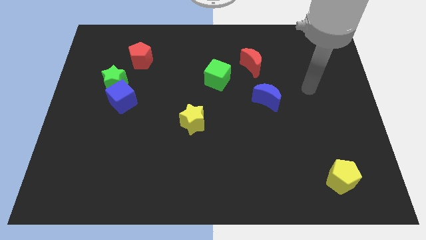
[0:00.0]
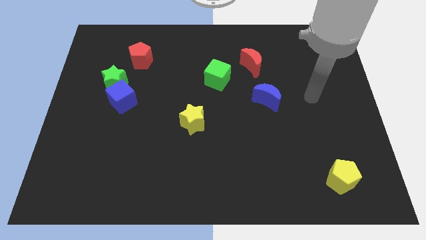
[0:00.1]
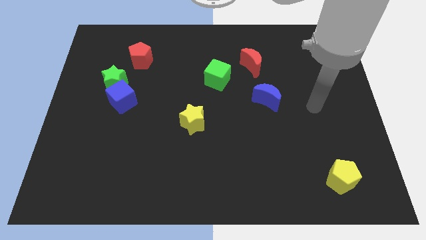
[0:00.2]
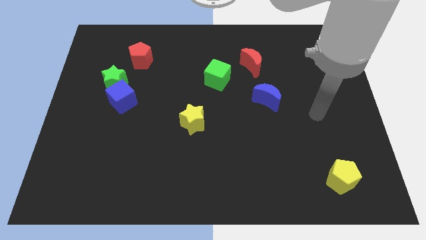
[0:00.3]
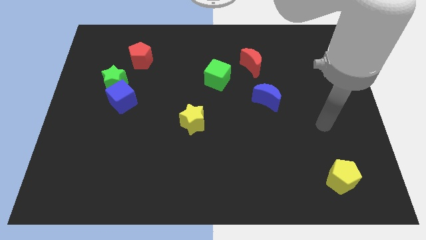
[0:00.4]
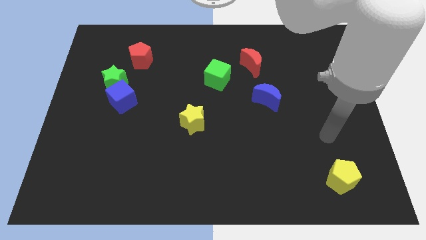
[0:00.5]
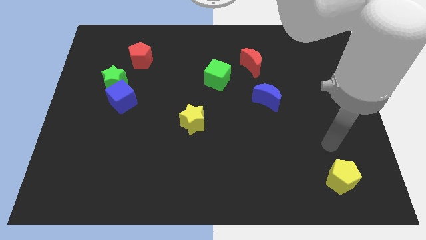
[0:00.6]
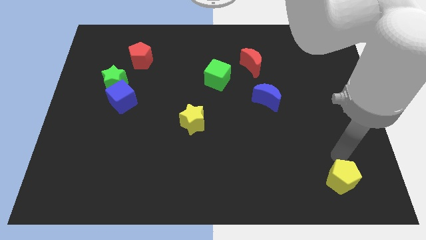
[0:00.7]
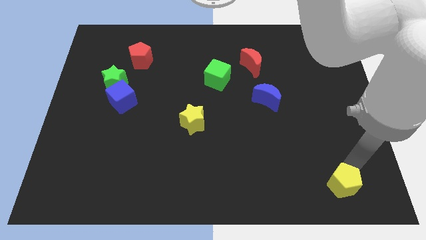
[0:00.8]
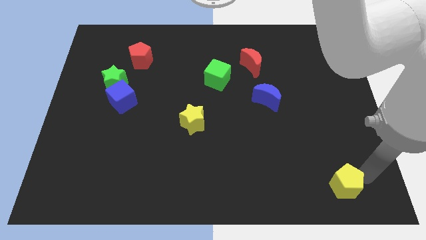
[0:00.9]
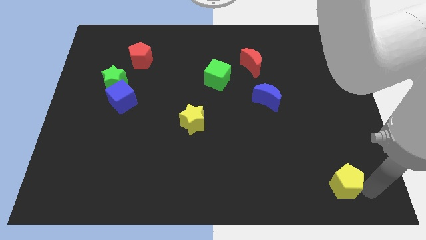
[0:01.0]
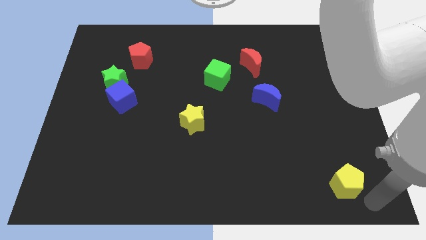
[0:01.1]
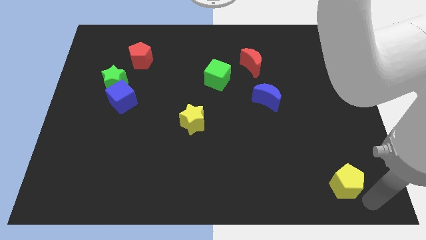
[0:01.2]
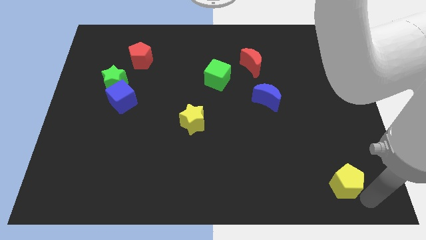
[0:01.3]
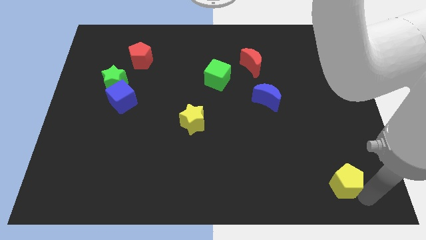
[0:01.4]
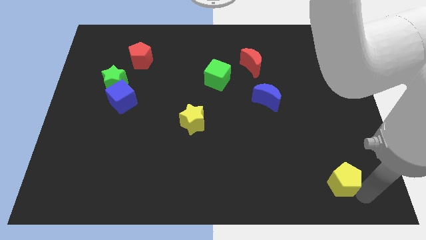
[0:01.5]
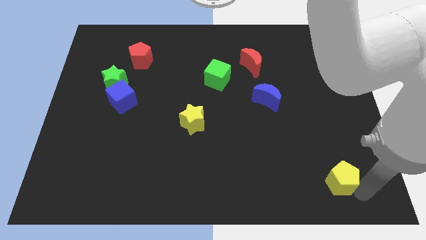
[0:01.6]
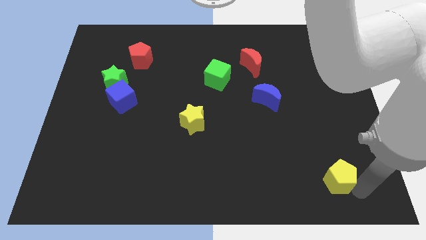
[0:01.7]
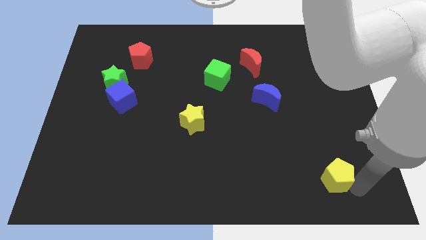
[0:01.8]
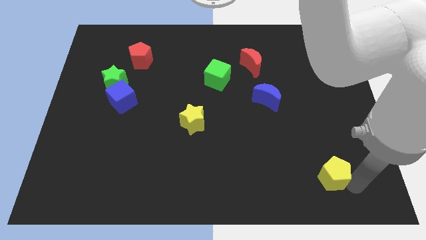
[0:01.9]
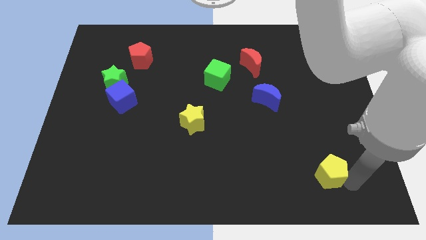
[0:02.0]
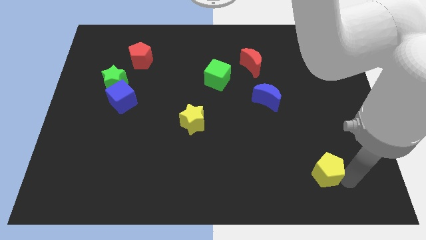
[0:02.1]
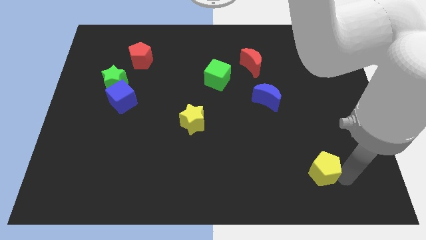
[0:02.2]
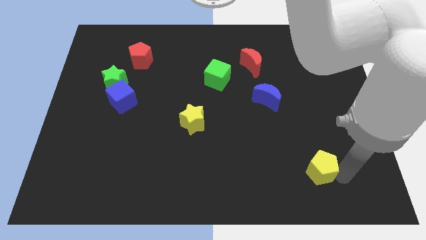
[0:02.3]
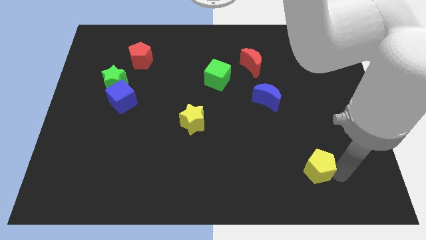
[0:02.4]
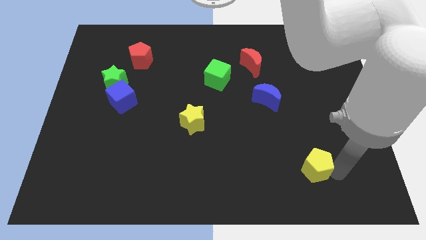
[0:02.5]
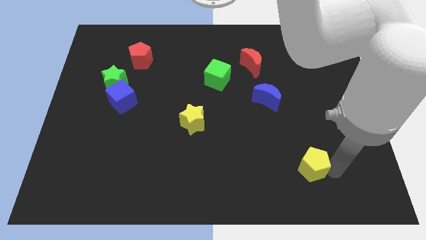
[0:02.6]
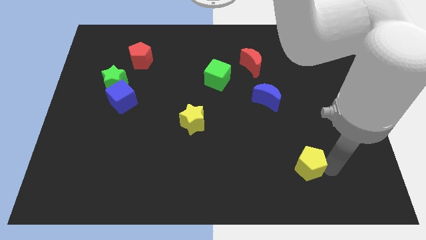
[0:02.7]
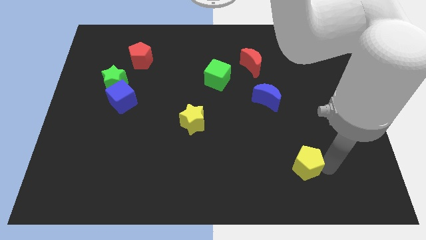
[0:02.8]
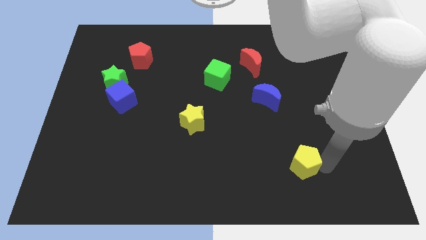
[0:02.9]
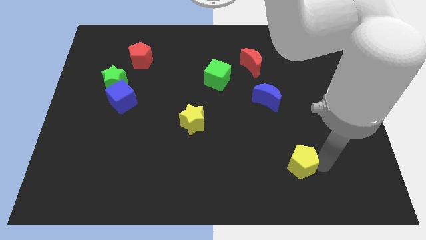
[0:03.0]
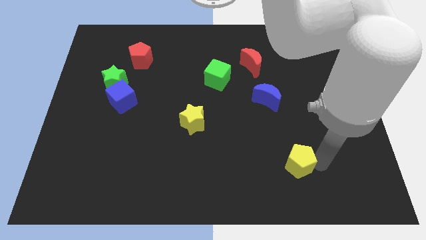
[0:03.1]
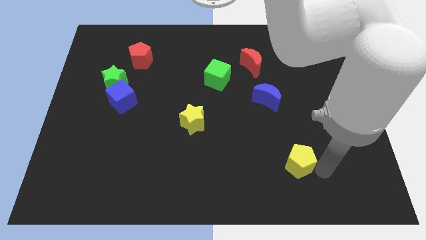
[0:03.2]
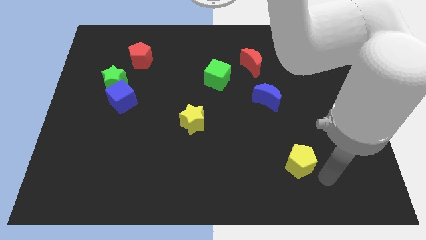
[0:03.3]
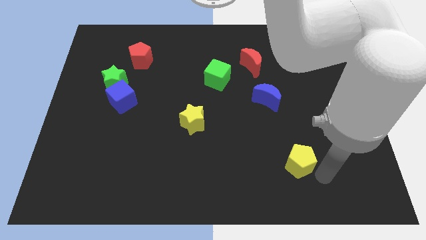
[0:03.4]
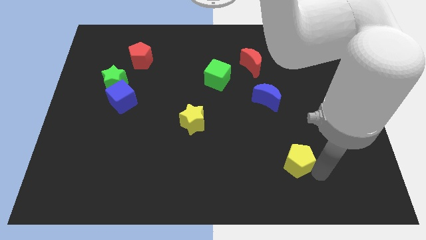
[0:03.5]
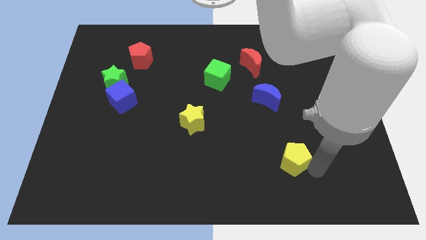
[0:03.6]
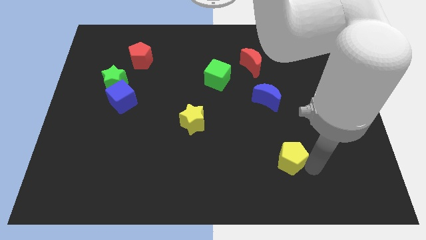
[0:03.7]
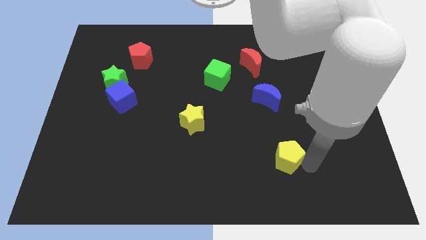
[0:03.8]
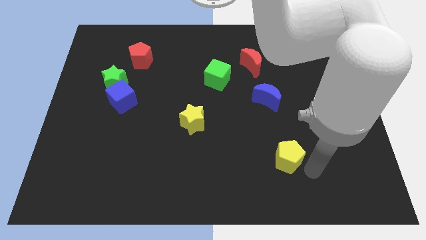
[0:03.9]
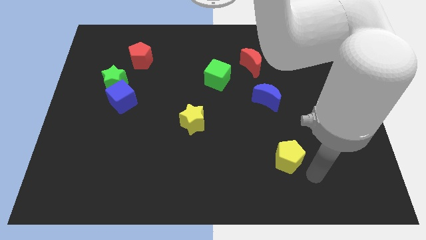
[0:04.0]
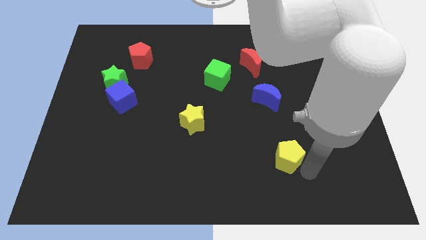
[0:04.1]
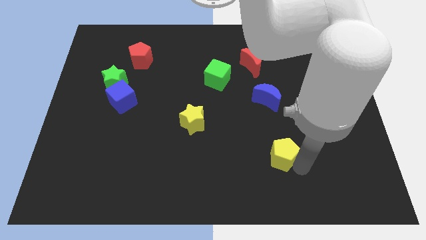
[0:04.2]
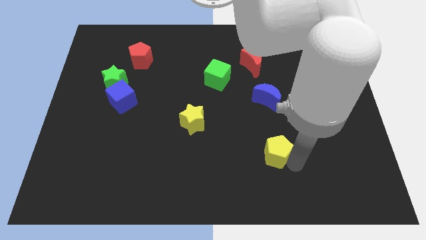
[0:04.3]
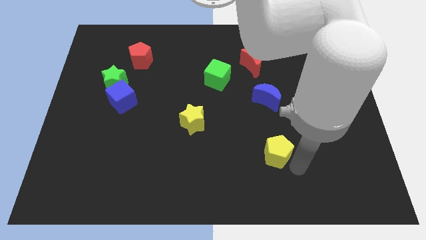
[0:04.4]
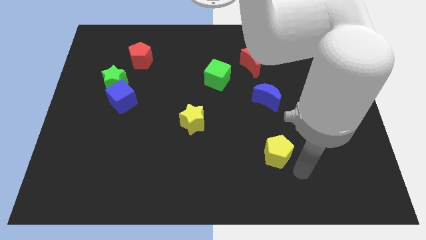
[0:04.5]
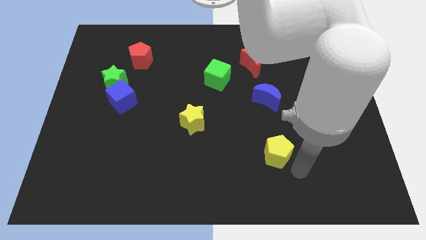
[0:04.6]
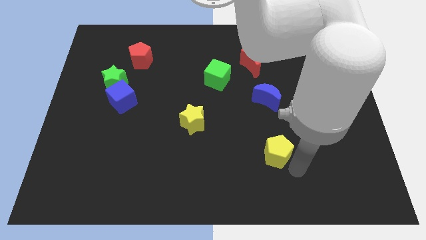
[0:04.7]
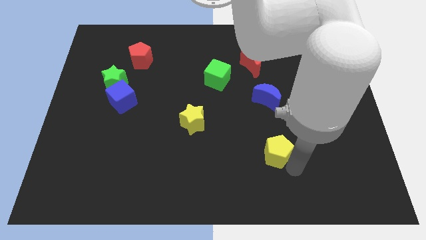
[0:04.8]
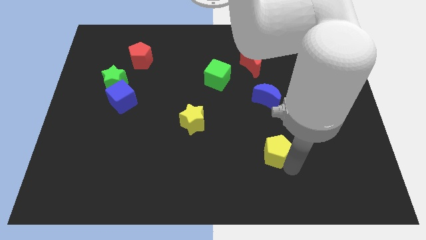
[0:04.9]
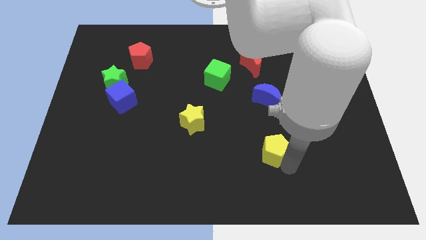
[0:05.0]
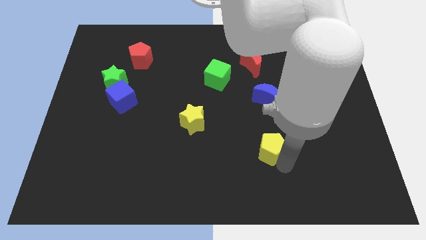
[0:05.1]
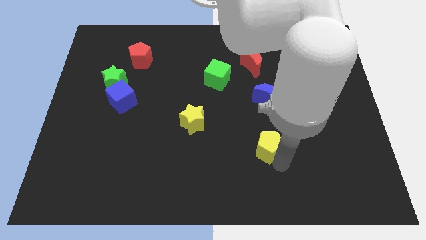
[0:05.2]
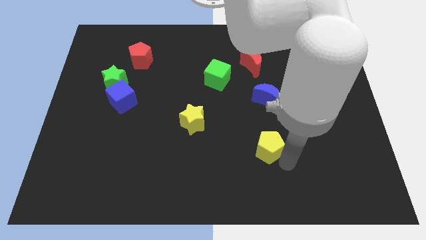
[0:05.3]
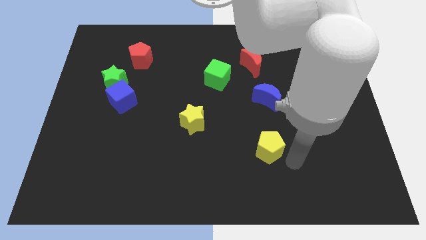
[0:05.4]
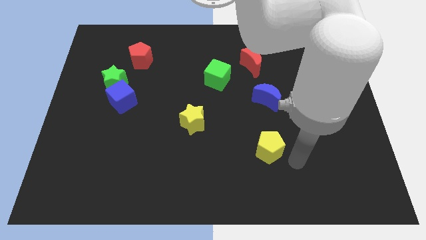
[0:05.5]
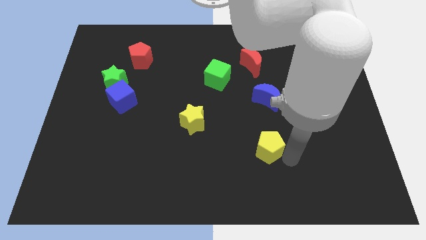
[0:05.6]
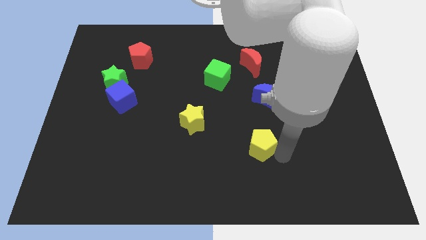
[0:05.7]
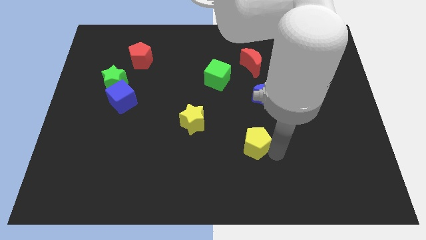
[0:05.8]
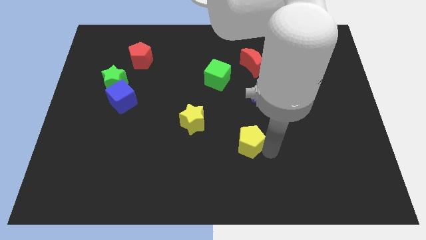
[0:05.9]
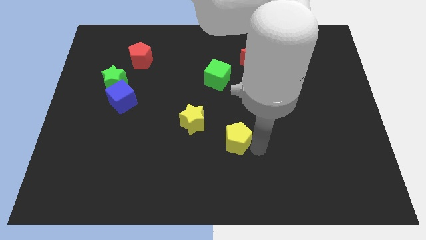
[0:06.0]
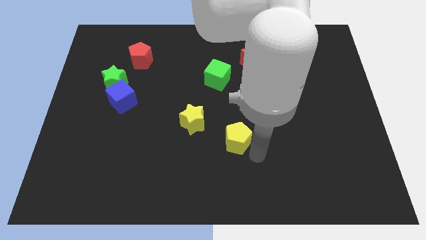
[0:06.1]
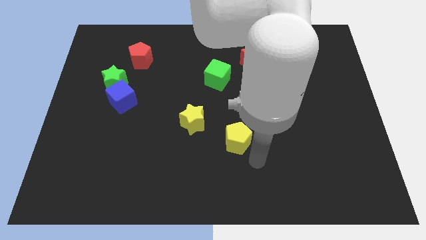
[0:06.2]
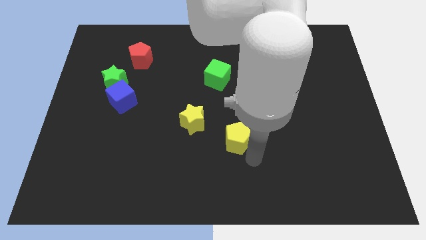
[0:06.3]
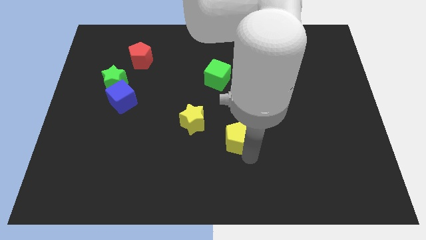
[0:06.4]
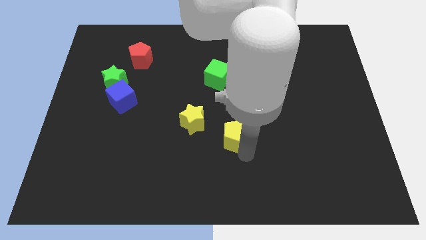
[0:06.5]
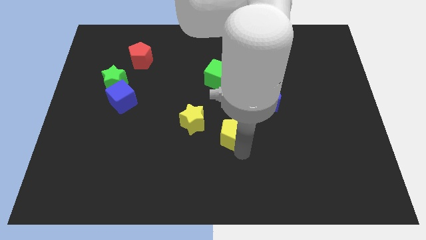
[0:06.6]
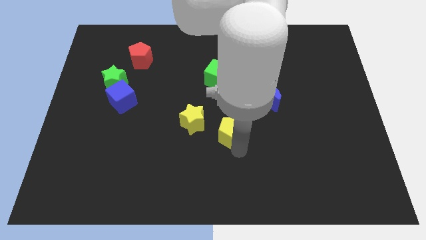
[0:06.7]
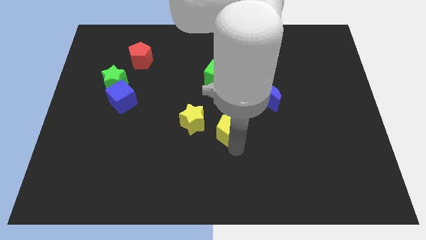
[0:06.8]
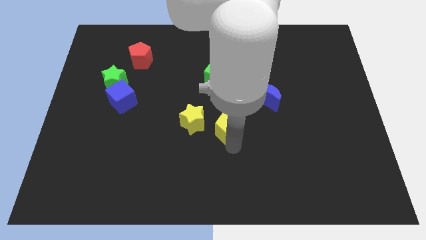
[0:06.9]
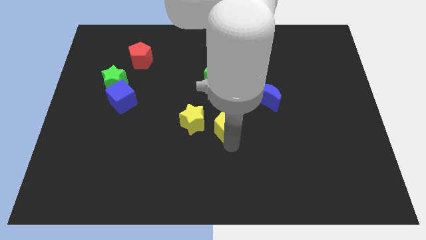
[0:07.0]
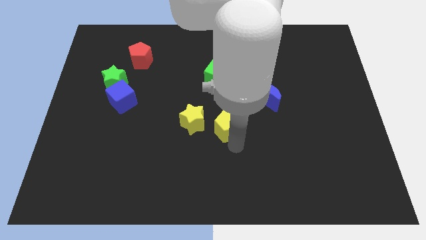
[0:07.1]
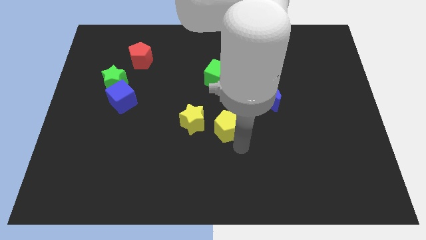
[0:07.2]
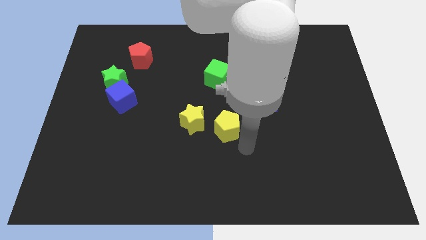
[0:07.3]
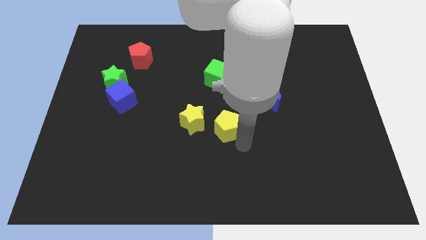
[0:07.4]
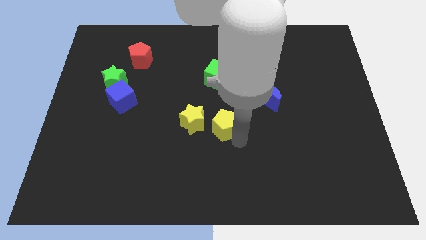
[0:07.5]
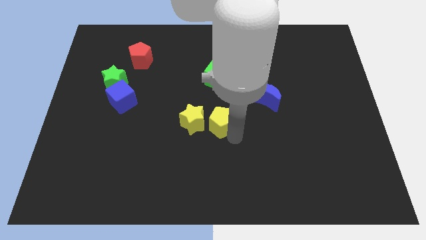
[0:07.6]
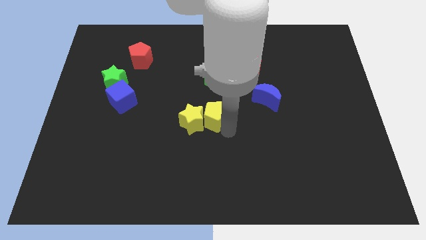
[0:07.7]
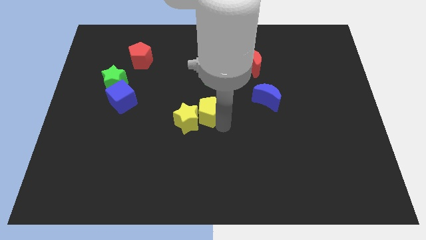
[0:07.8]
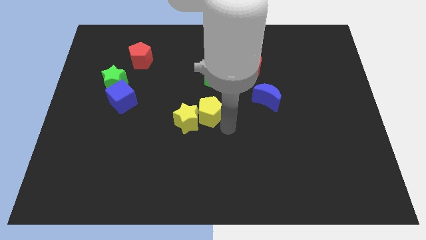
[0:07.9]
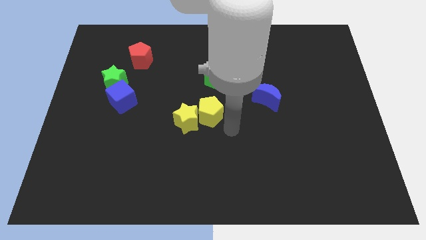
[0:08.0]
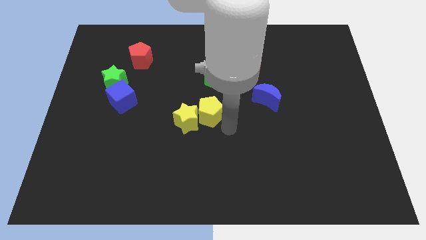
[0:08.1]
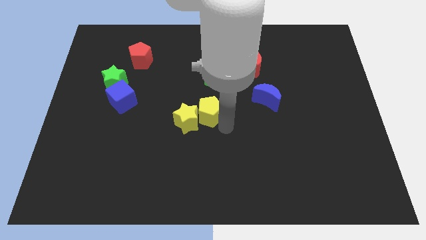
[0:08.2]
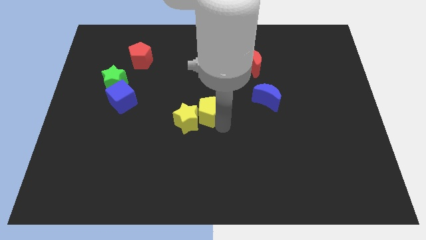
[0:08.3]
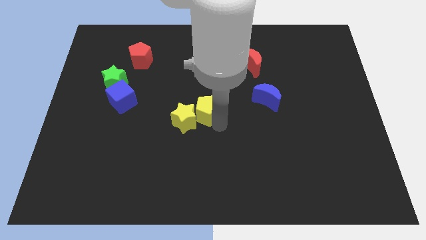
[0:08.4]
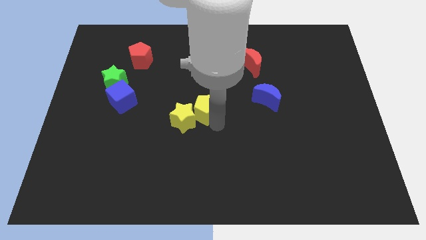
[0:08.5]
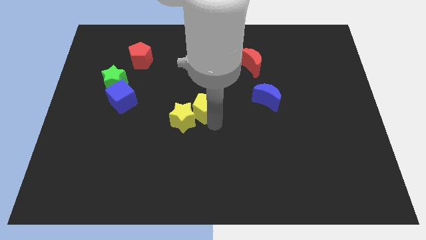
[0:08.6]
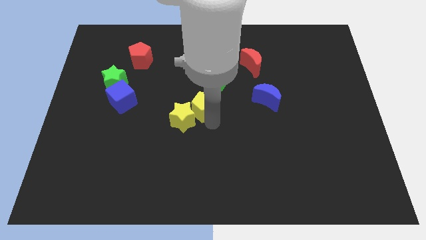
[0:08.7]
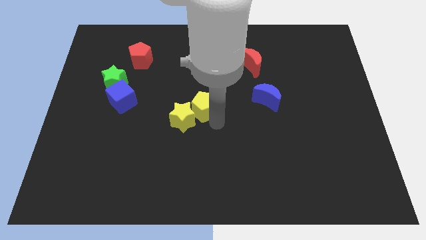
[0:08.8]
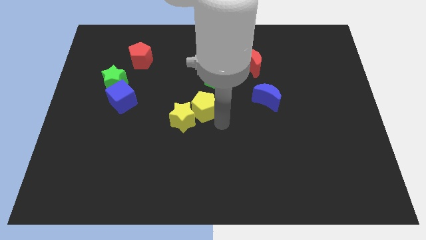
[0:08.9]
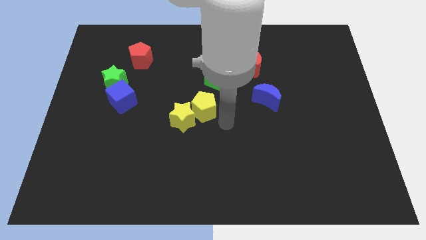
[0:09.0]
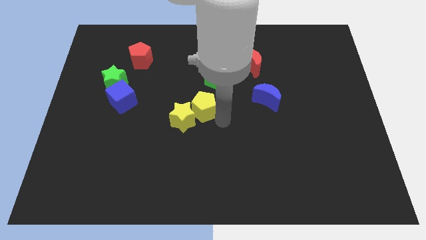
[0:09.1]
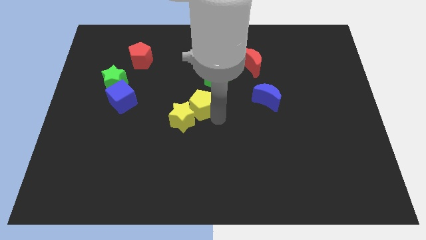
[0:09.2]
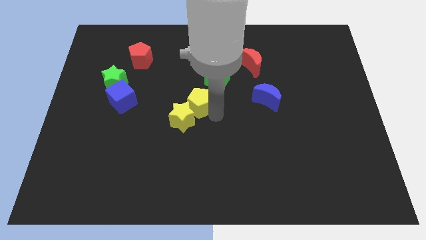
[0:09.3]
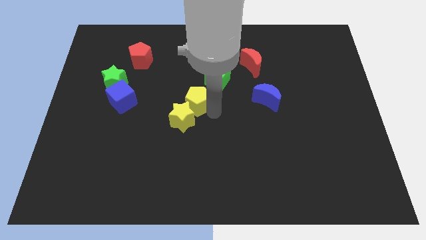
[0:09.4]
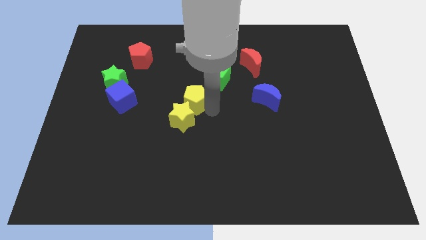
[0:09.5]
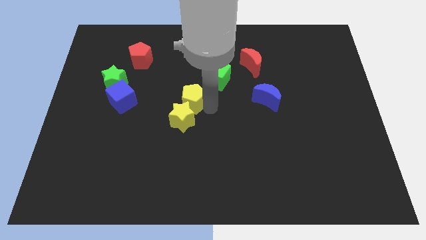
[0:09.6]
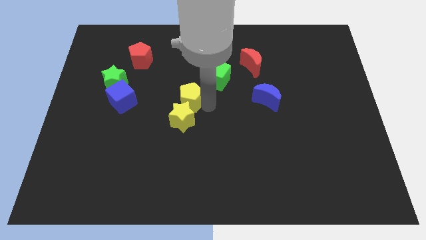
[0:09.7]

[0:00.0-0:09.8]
push the yellow pentagon to the right of the blue cube
